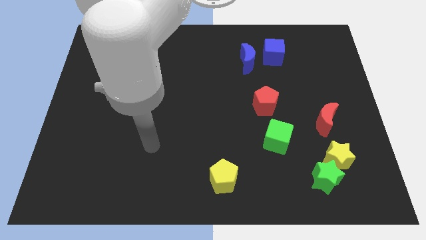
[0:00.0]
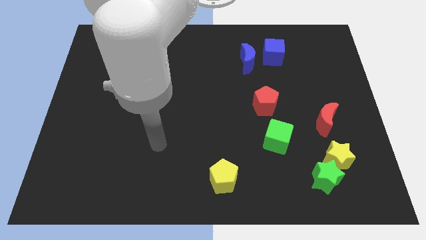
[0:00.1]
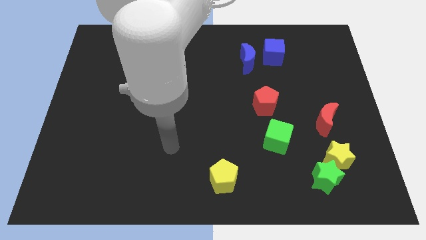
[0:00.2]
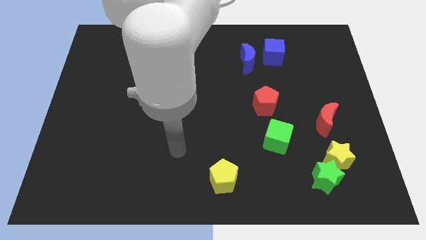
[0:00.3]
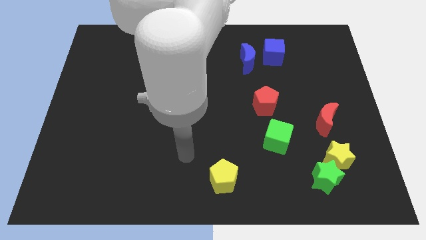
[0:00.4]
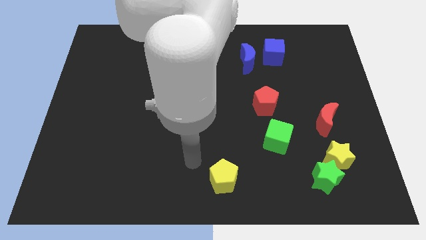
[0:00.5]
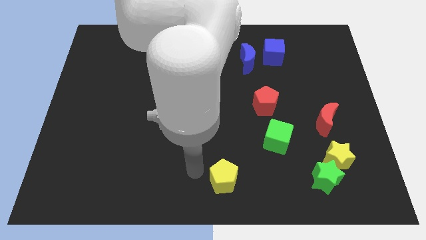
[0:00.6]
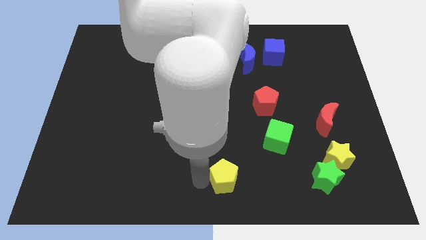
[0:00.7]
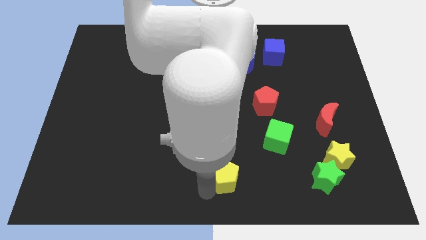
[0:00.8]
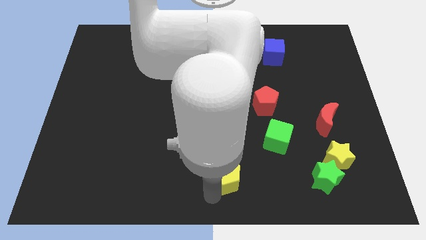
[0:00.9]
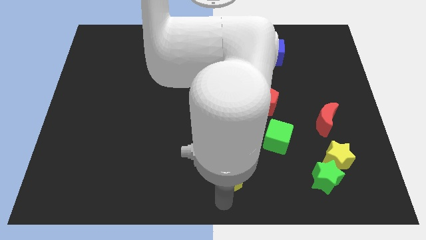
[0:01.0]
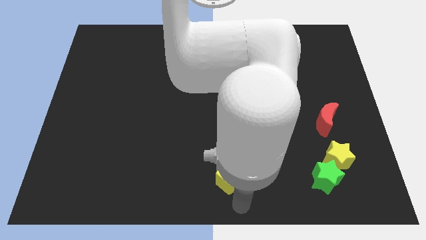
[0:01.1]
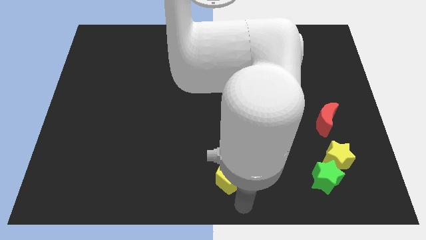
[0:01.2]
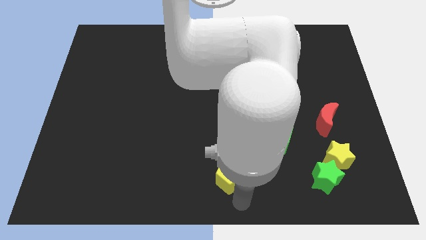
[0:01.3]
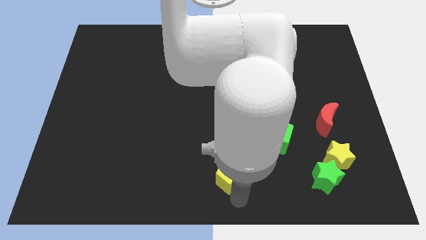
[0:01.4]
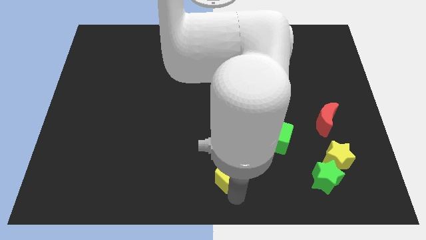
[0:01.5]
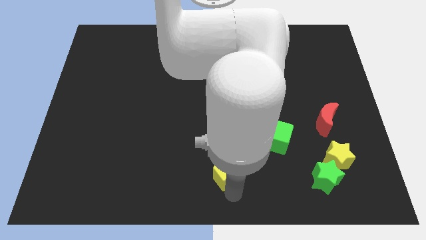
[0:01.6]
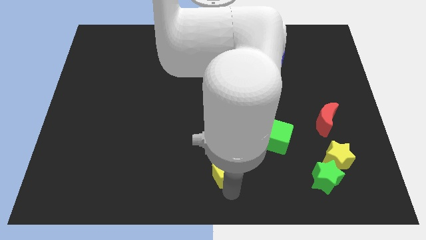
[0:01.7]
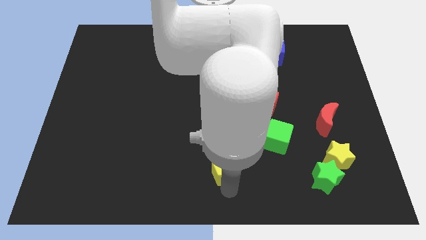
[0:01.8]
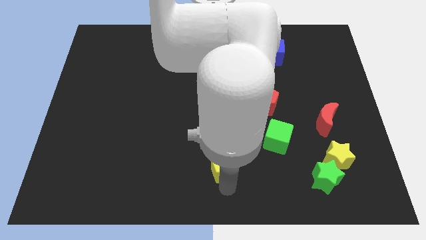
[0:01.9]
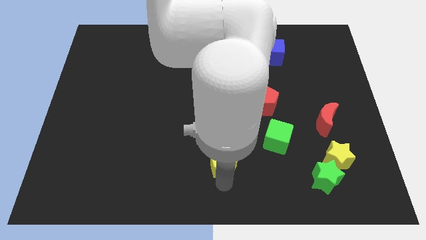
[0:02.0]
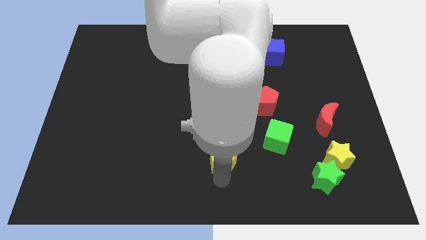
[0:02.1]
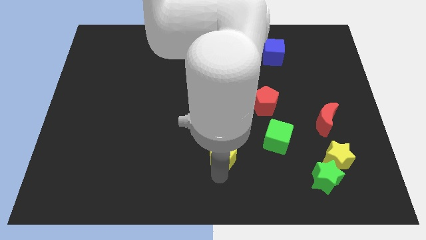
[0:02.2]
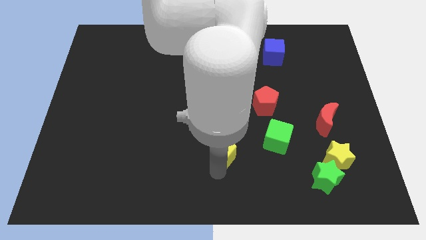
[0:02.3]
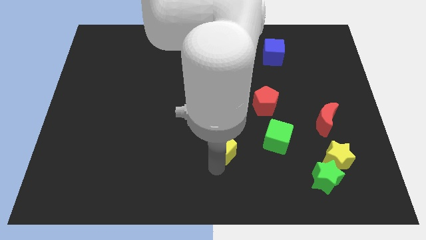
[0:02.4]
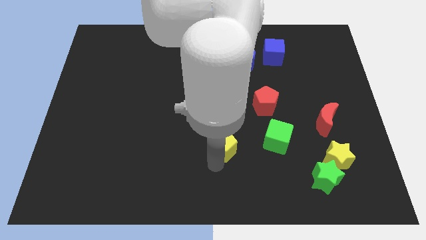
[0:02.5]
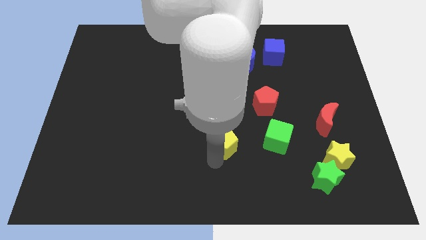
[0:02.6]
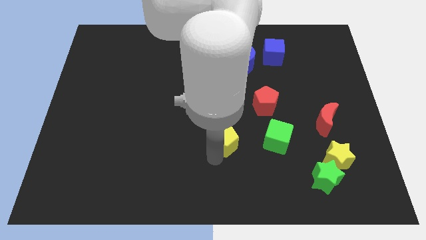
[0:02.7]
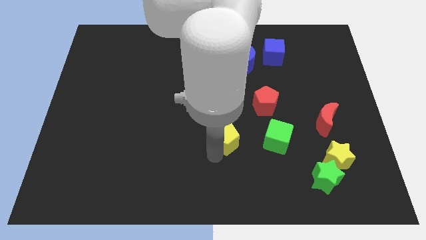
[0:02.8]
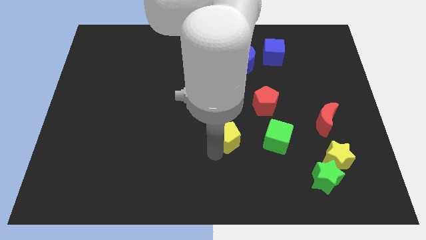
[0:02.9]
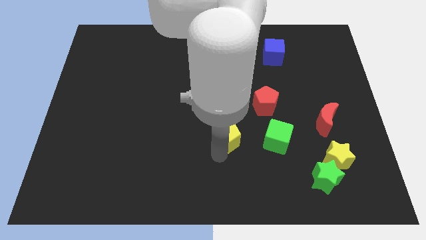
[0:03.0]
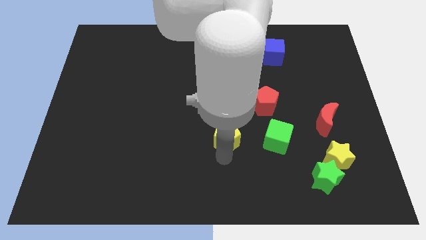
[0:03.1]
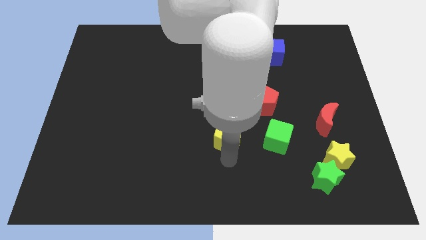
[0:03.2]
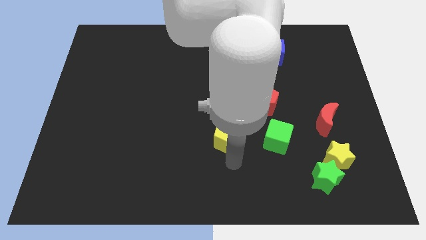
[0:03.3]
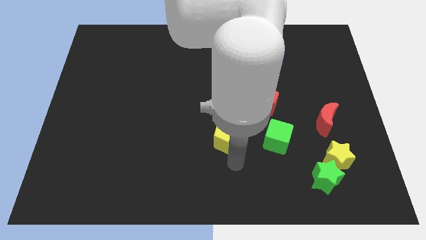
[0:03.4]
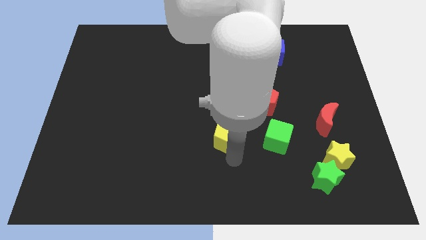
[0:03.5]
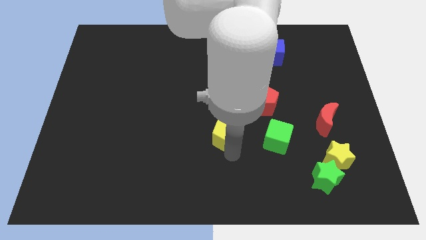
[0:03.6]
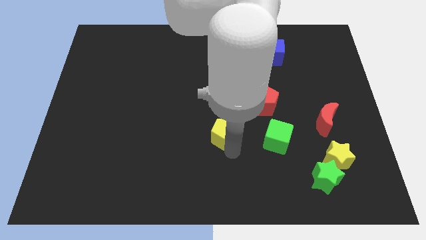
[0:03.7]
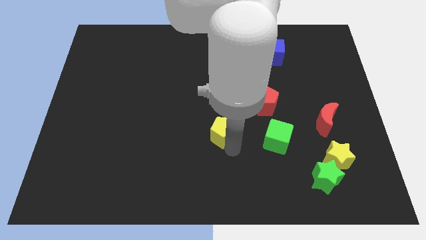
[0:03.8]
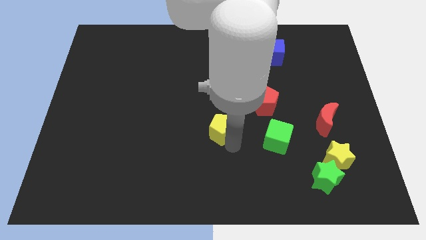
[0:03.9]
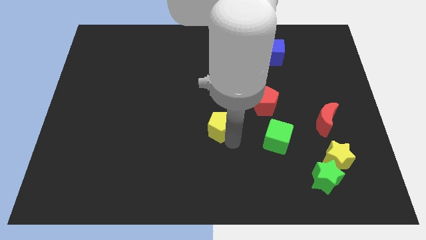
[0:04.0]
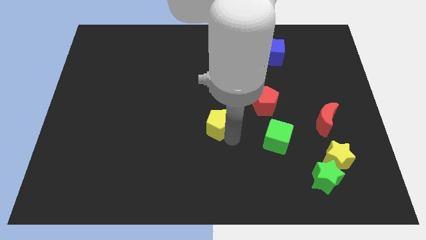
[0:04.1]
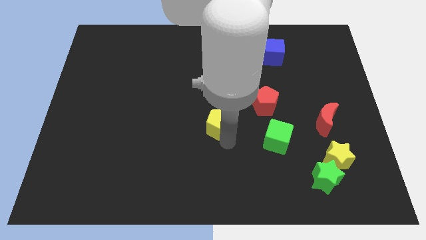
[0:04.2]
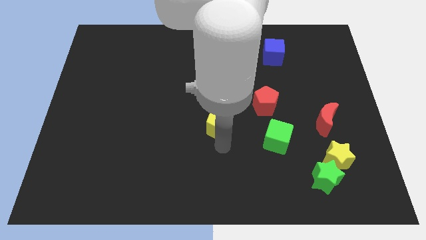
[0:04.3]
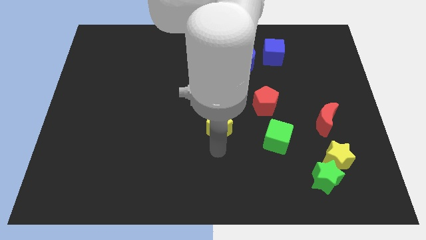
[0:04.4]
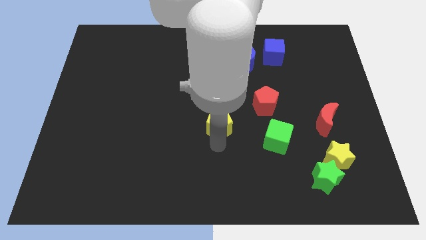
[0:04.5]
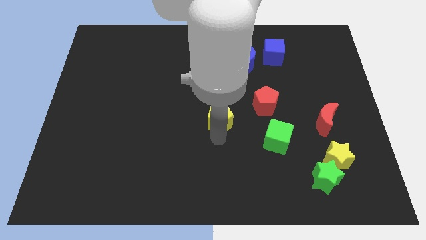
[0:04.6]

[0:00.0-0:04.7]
push the yellow pentagon to the left of the red pentagon

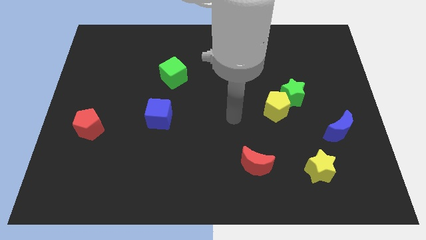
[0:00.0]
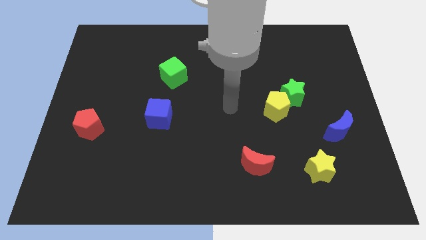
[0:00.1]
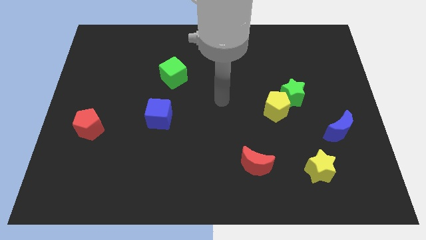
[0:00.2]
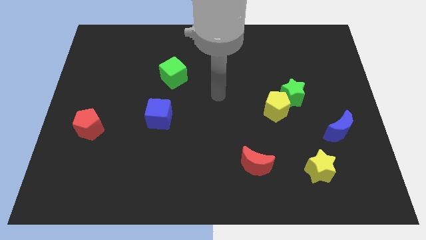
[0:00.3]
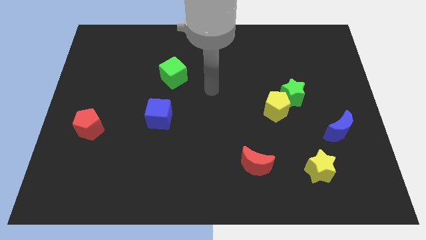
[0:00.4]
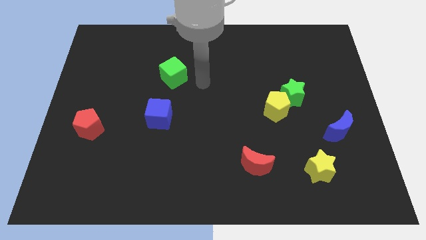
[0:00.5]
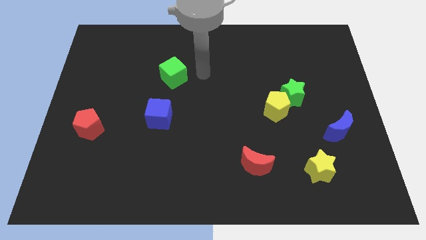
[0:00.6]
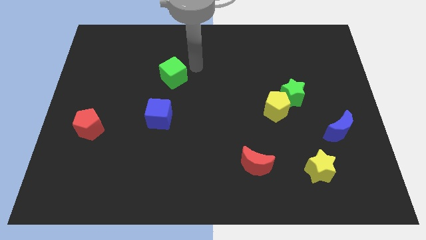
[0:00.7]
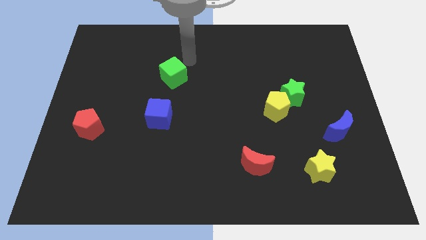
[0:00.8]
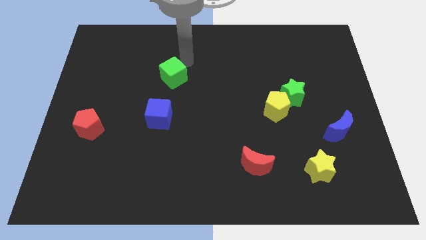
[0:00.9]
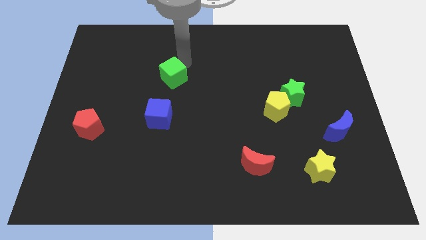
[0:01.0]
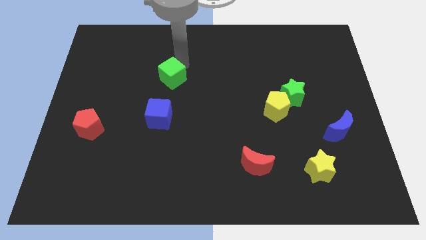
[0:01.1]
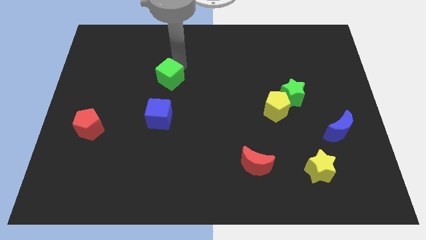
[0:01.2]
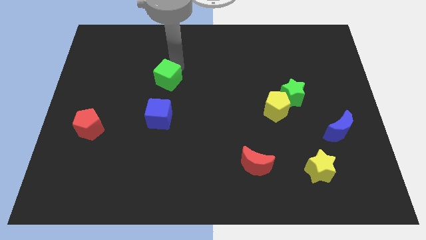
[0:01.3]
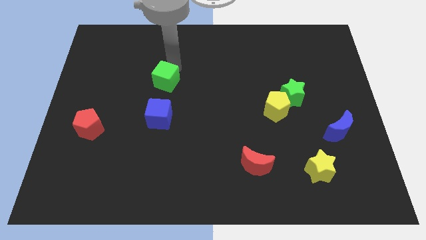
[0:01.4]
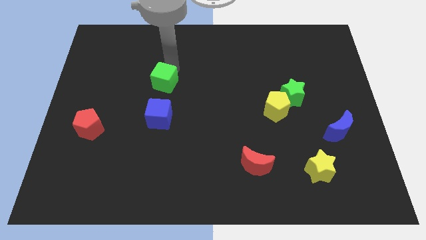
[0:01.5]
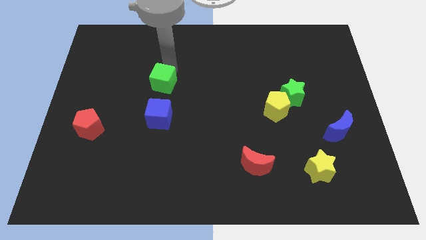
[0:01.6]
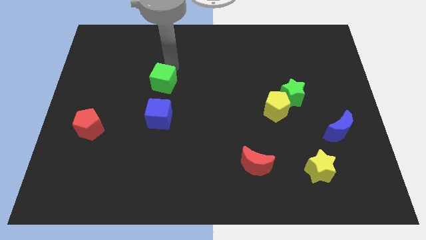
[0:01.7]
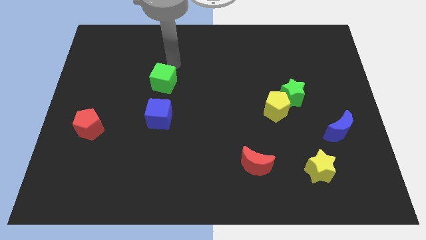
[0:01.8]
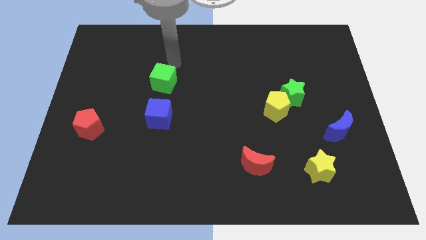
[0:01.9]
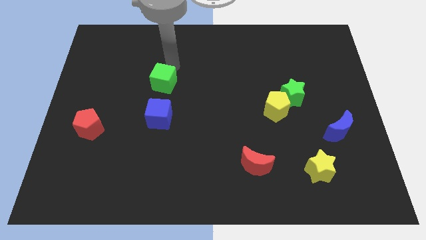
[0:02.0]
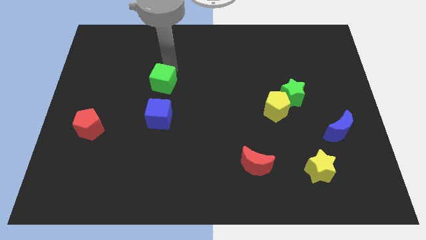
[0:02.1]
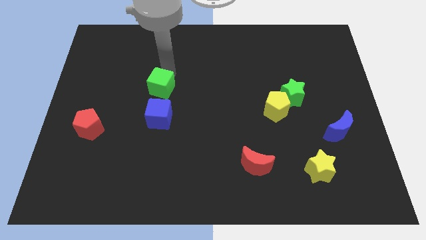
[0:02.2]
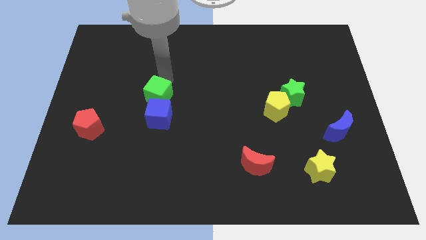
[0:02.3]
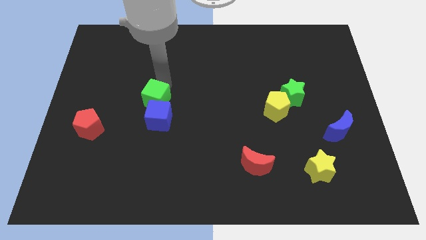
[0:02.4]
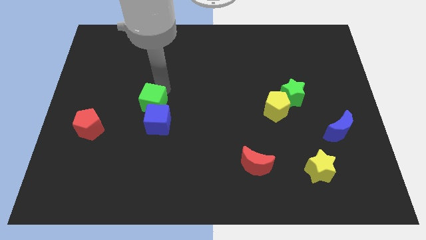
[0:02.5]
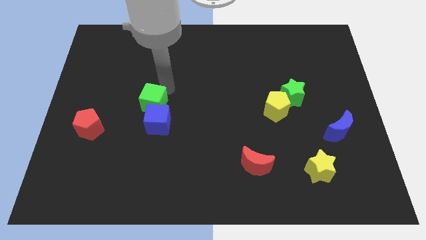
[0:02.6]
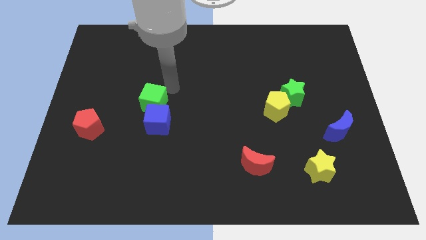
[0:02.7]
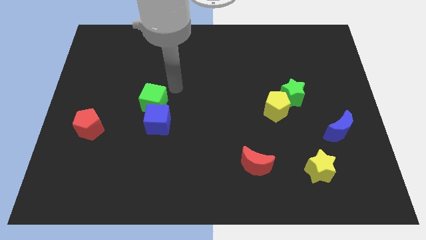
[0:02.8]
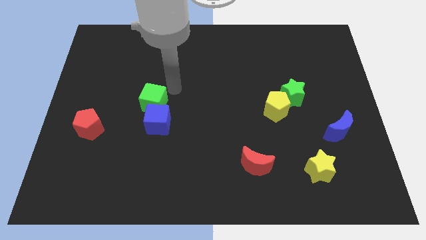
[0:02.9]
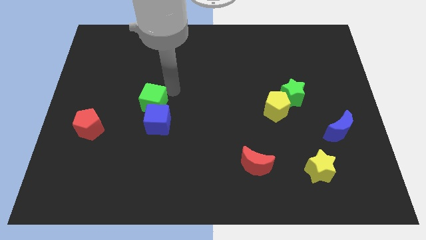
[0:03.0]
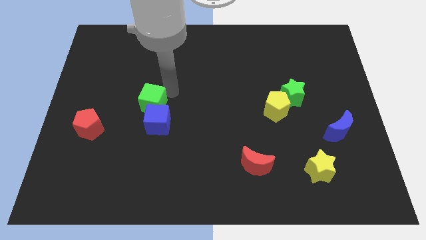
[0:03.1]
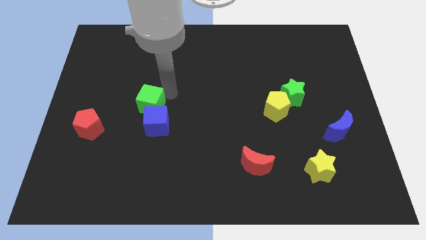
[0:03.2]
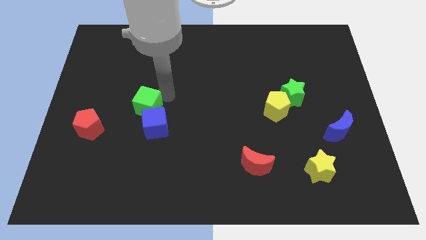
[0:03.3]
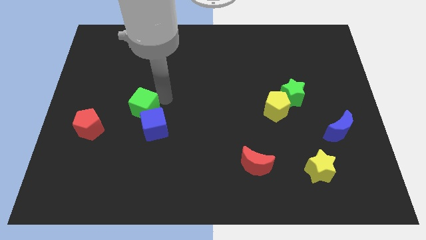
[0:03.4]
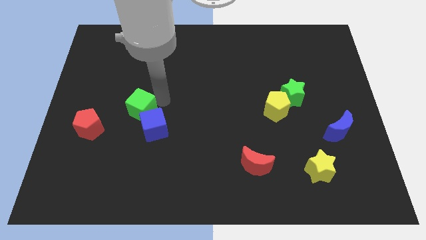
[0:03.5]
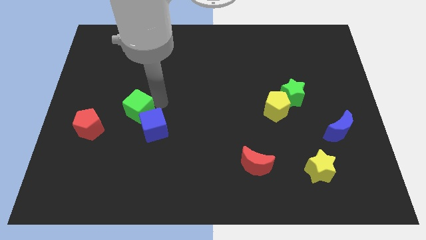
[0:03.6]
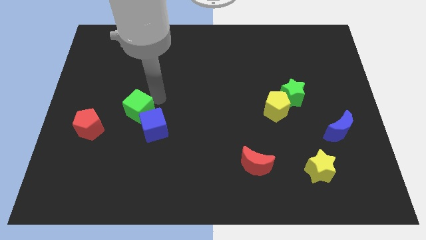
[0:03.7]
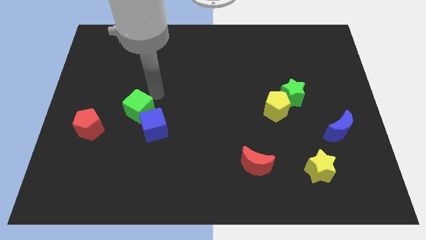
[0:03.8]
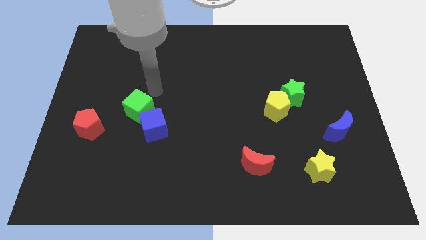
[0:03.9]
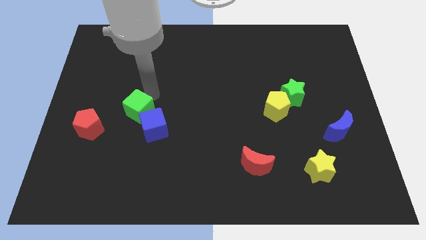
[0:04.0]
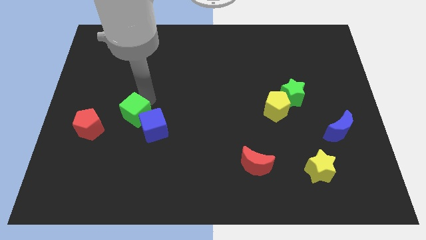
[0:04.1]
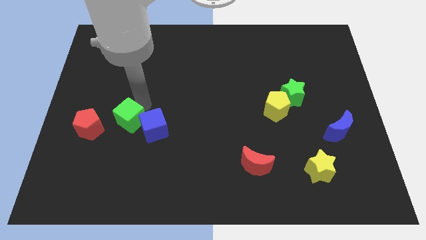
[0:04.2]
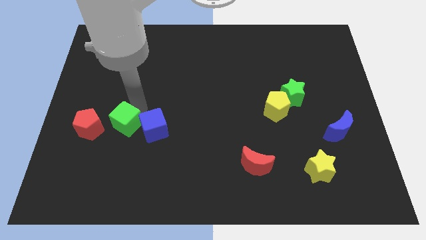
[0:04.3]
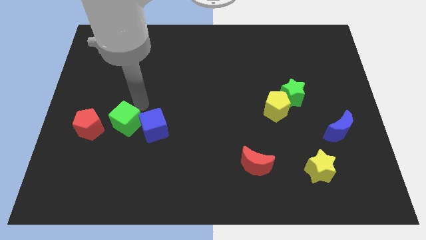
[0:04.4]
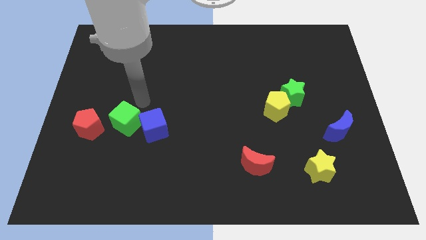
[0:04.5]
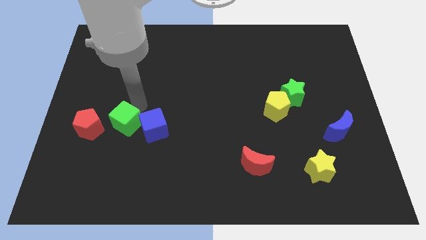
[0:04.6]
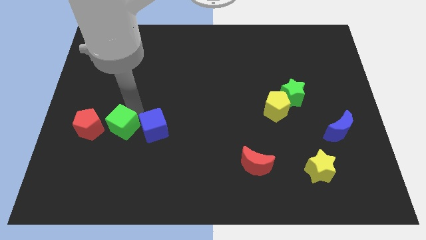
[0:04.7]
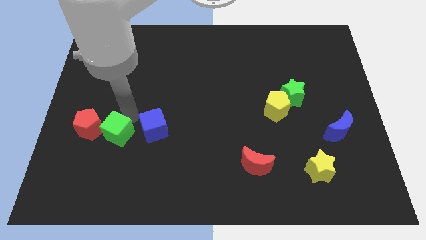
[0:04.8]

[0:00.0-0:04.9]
move the green cube diagonally down and to the right of the red pentagon
